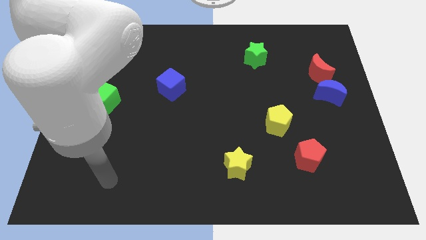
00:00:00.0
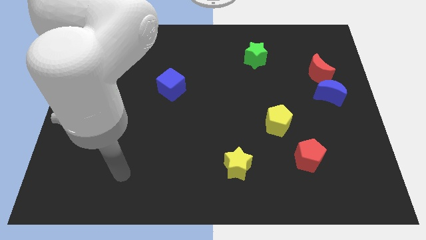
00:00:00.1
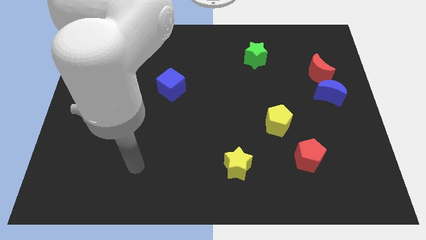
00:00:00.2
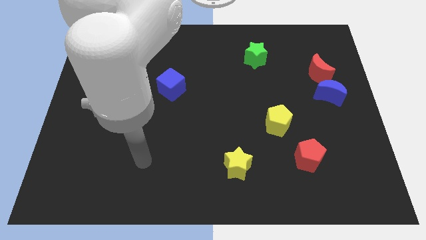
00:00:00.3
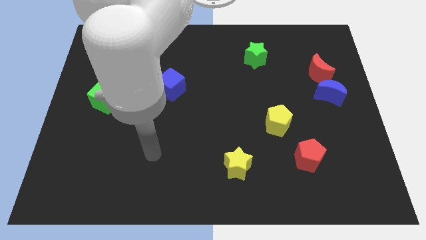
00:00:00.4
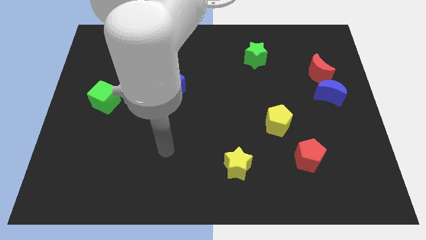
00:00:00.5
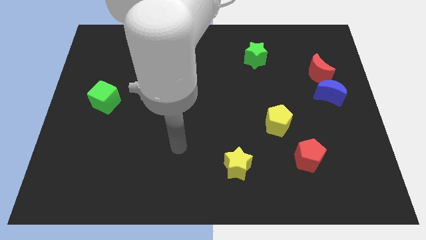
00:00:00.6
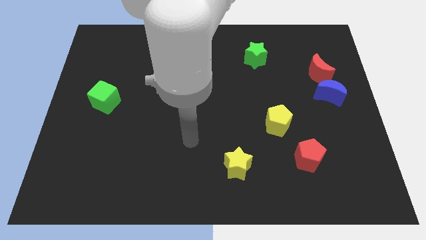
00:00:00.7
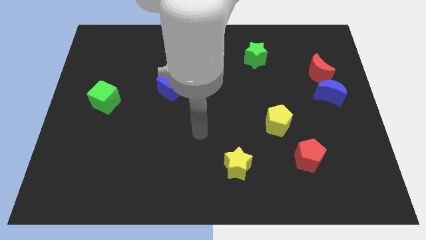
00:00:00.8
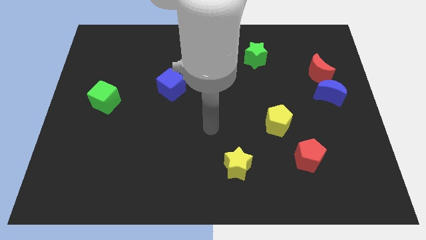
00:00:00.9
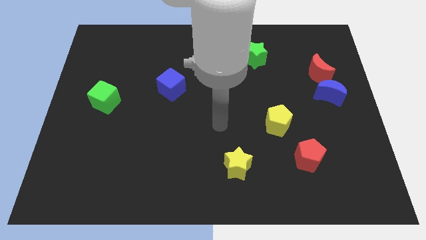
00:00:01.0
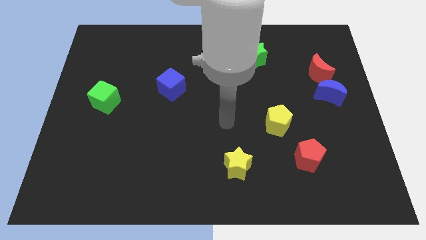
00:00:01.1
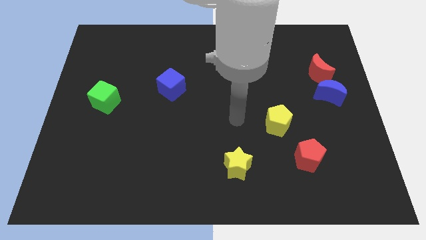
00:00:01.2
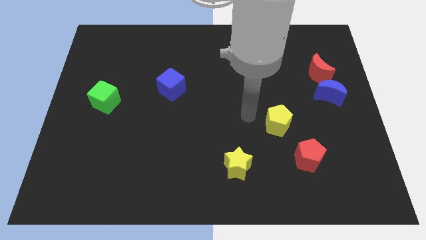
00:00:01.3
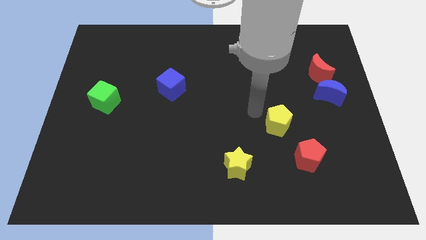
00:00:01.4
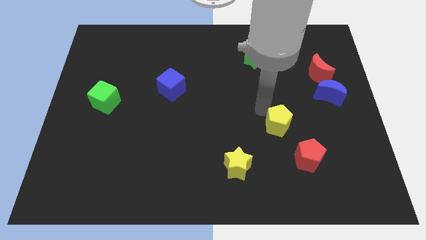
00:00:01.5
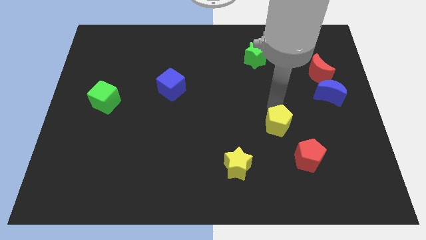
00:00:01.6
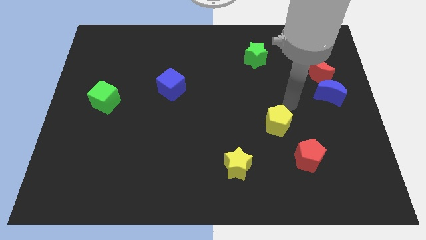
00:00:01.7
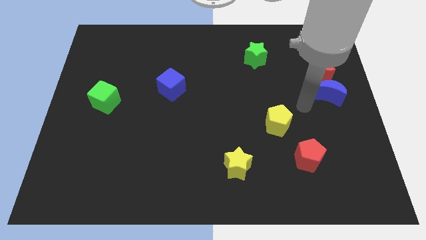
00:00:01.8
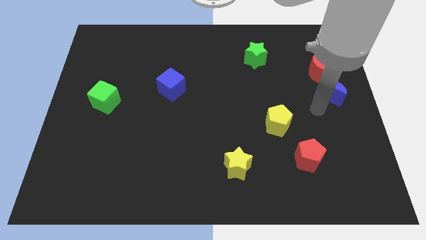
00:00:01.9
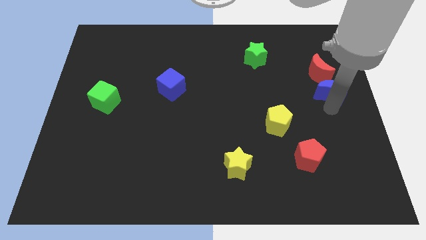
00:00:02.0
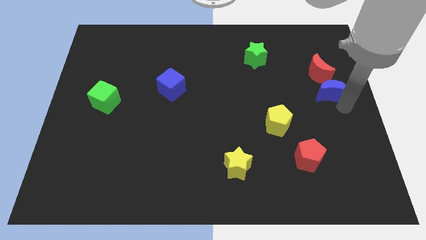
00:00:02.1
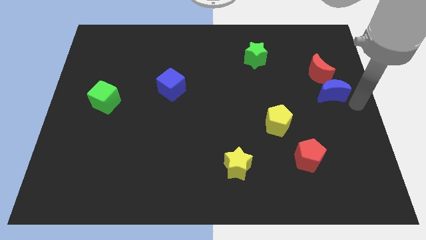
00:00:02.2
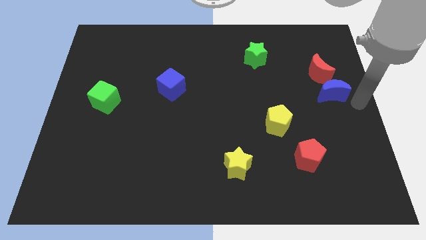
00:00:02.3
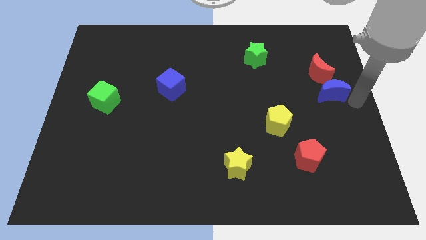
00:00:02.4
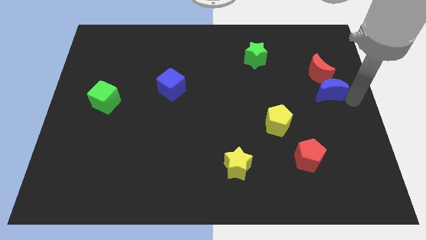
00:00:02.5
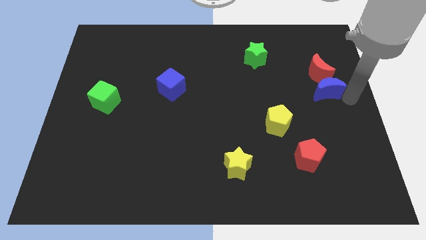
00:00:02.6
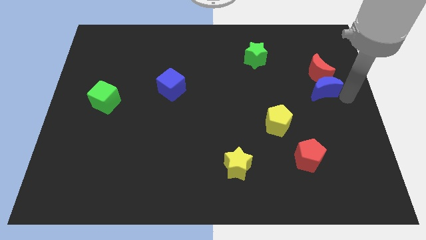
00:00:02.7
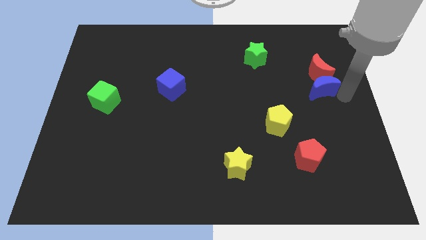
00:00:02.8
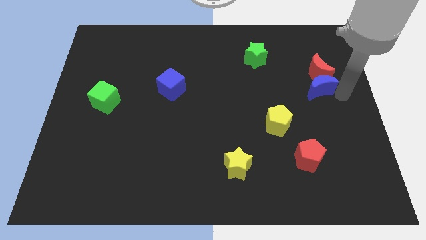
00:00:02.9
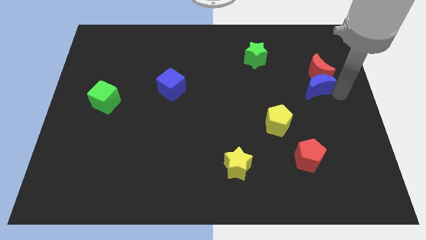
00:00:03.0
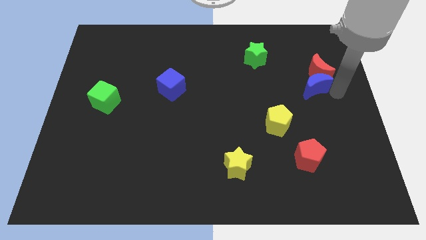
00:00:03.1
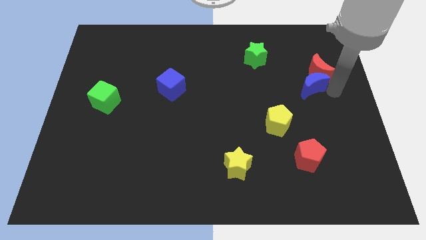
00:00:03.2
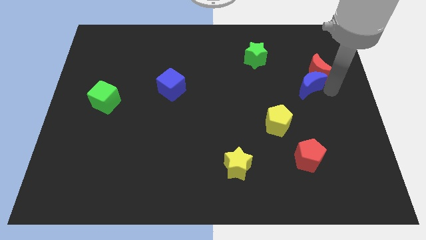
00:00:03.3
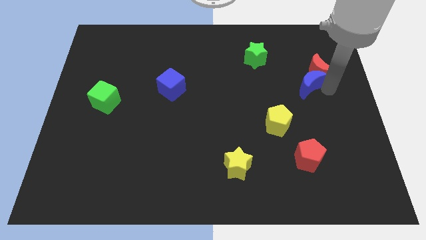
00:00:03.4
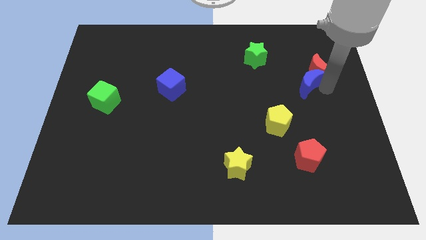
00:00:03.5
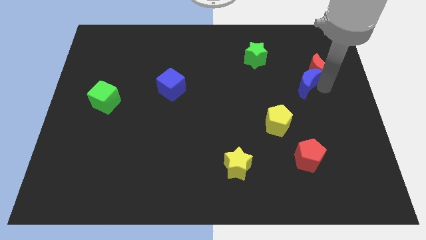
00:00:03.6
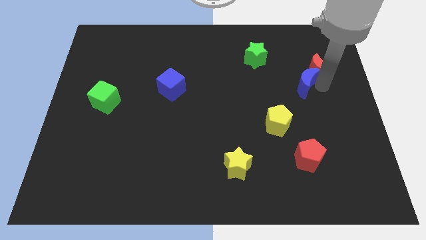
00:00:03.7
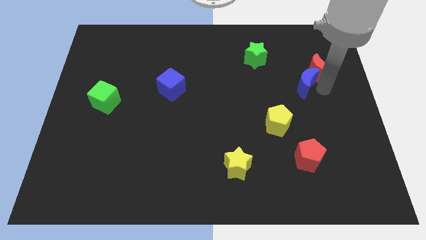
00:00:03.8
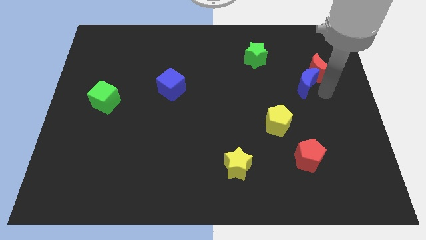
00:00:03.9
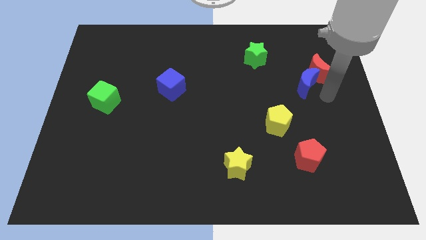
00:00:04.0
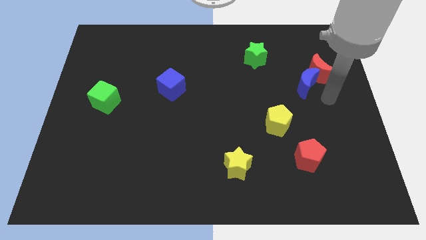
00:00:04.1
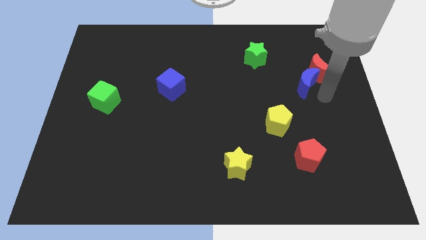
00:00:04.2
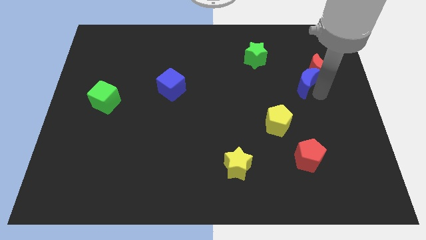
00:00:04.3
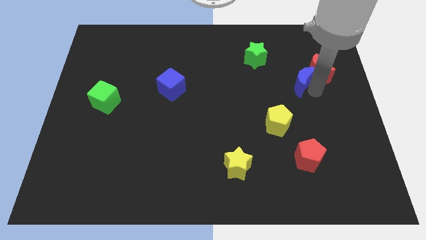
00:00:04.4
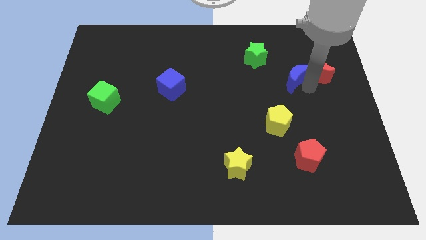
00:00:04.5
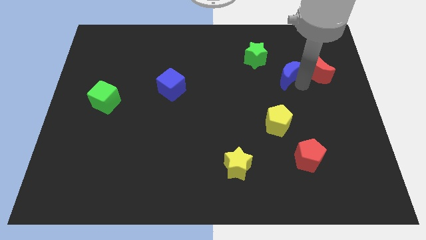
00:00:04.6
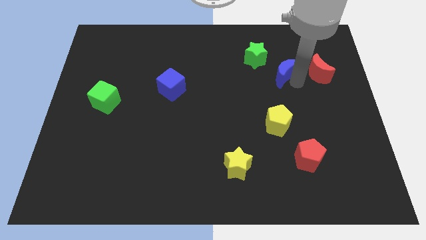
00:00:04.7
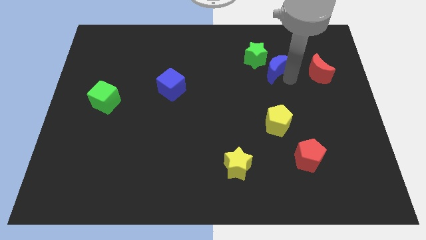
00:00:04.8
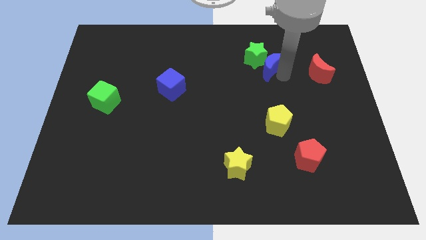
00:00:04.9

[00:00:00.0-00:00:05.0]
push the blue moon close to the green star

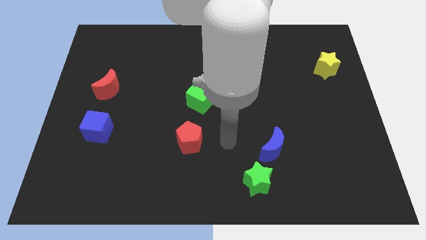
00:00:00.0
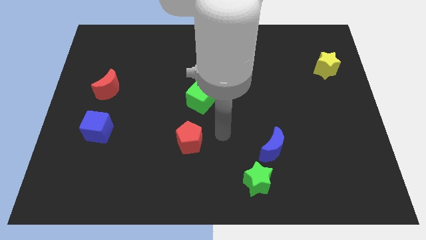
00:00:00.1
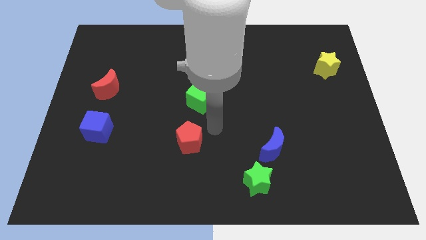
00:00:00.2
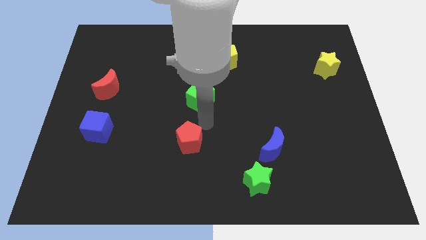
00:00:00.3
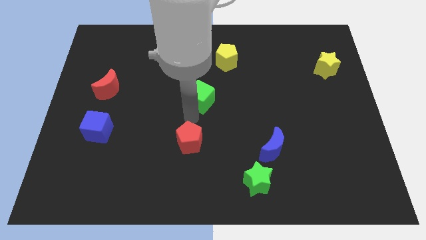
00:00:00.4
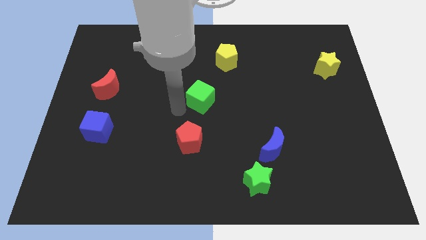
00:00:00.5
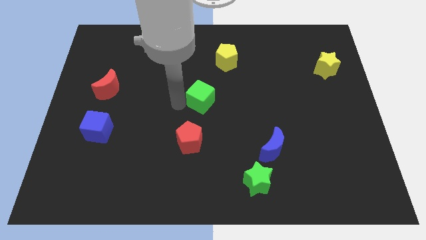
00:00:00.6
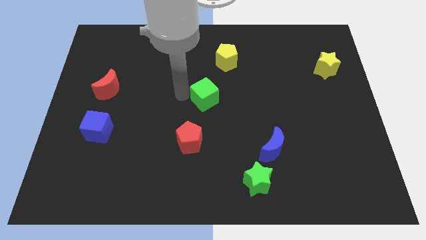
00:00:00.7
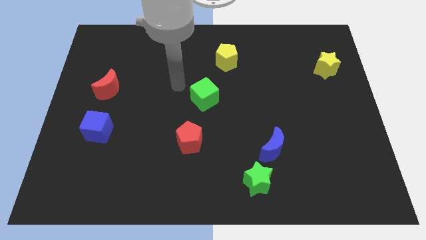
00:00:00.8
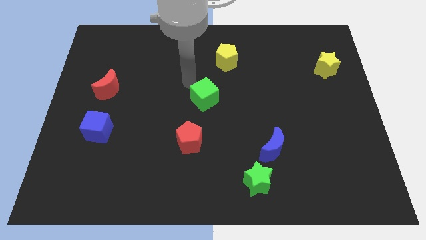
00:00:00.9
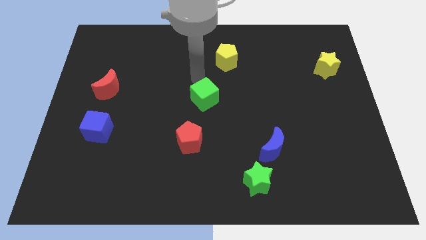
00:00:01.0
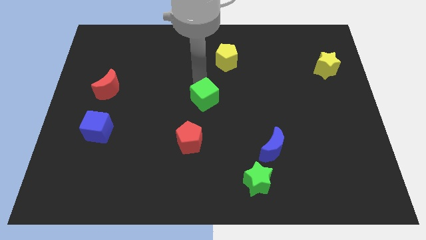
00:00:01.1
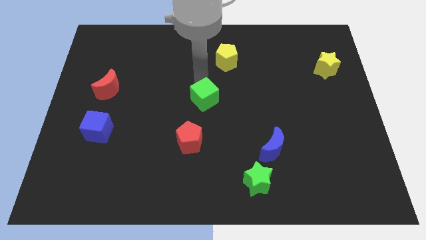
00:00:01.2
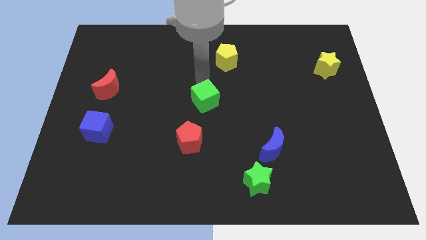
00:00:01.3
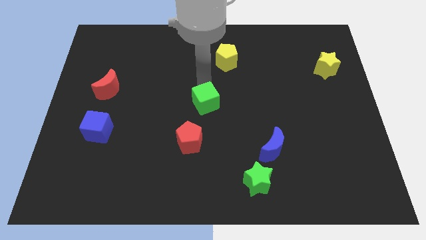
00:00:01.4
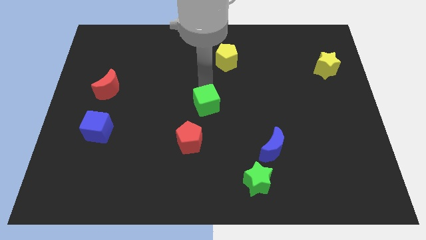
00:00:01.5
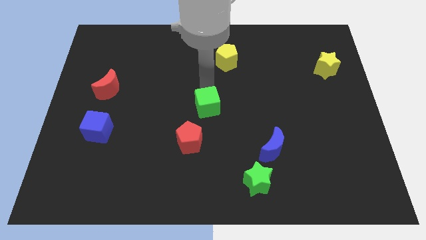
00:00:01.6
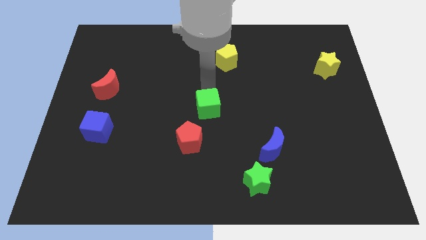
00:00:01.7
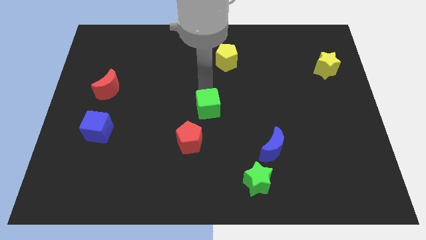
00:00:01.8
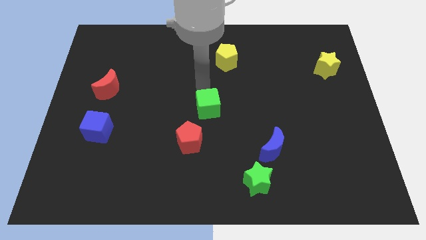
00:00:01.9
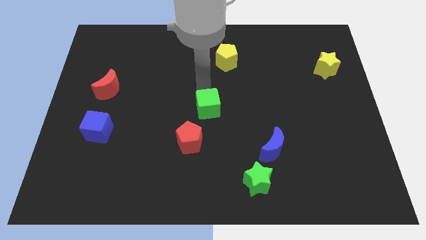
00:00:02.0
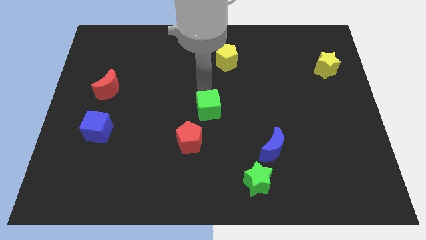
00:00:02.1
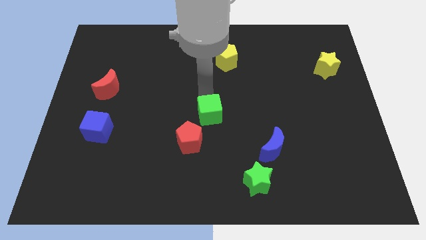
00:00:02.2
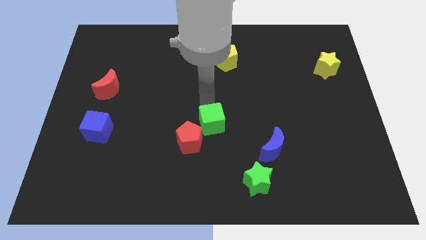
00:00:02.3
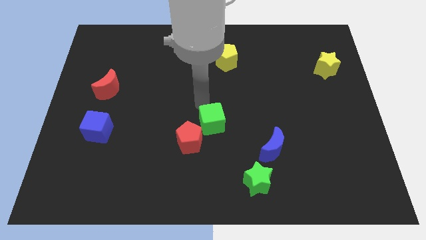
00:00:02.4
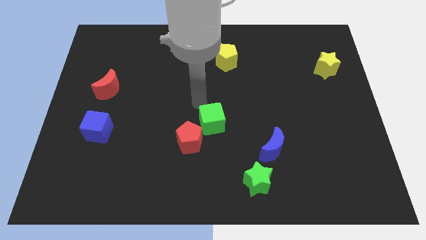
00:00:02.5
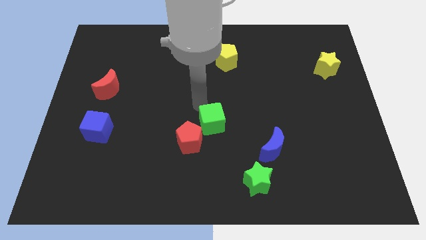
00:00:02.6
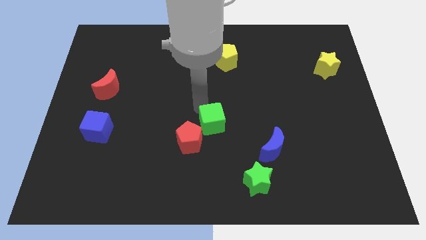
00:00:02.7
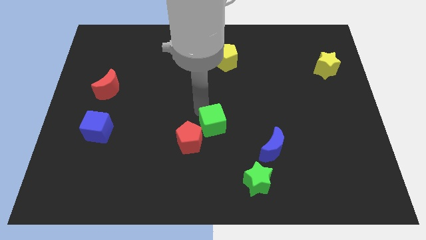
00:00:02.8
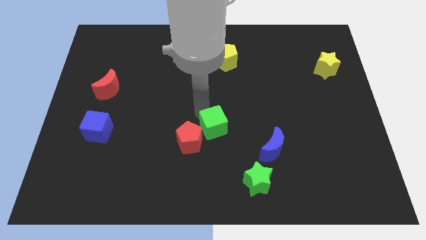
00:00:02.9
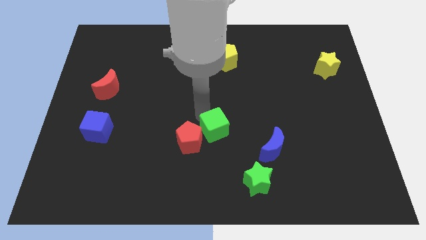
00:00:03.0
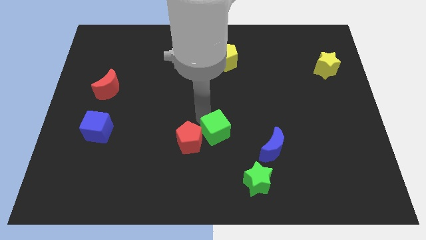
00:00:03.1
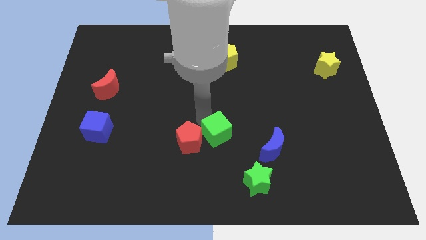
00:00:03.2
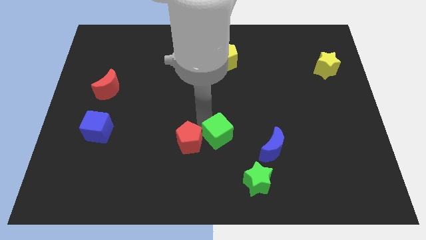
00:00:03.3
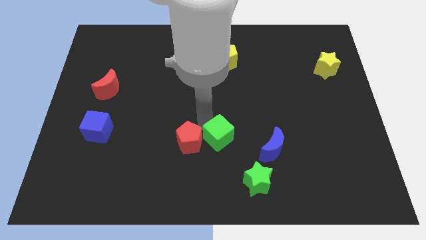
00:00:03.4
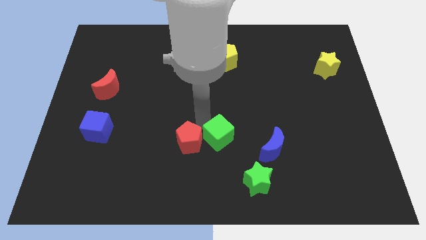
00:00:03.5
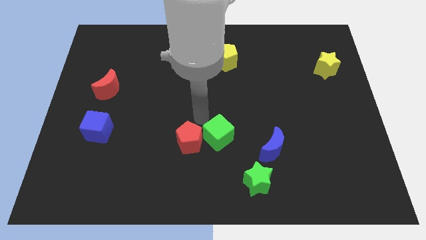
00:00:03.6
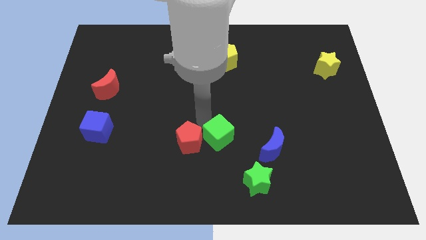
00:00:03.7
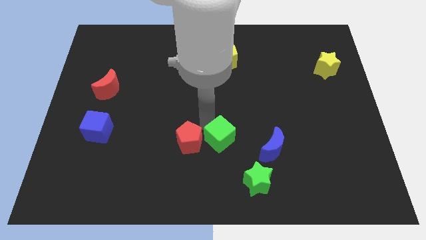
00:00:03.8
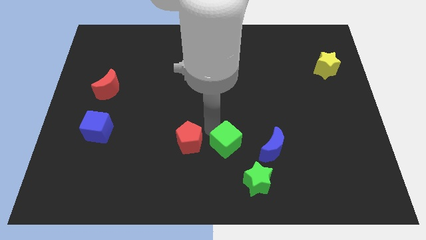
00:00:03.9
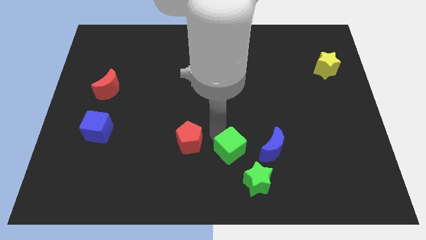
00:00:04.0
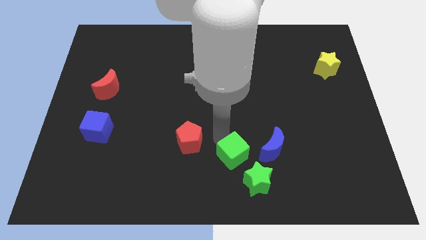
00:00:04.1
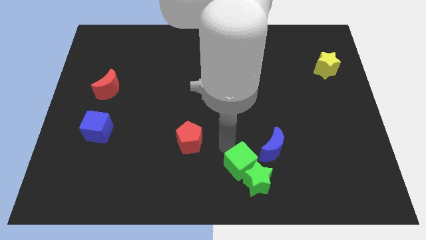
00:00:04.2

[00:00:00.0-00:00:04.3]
push the green cube towards the green star
